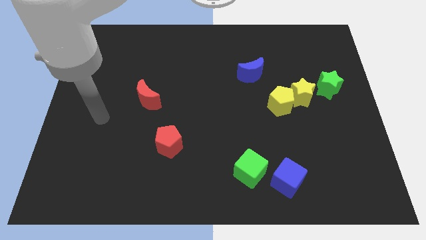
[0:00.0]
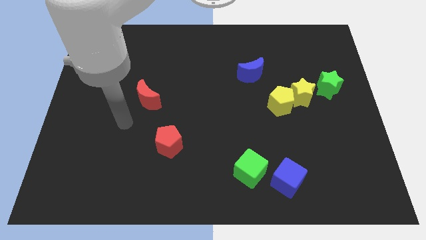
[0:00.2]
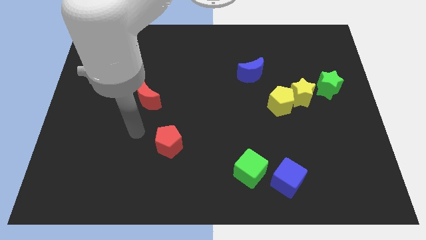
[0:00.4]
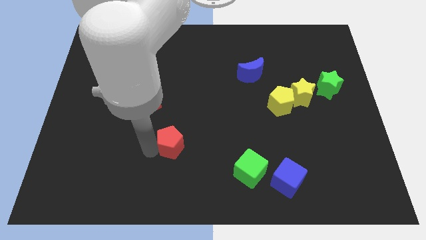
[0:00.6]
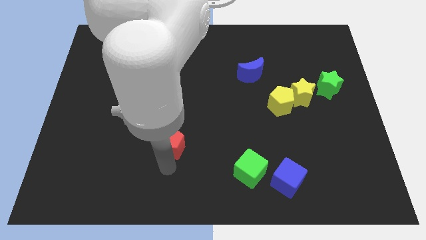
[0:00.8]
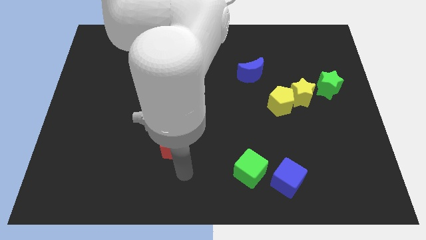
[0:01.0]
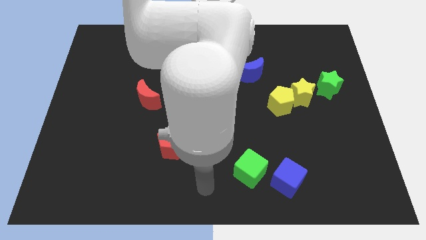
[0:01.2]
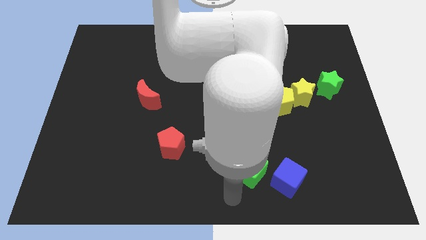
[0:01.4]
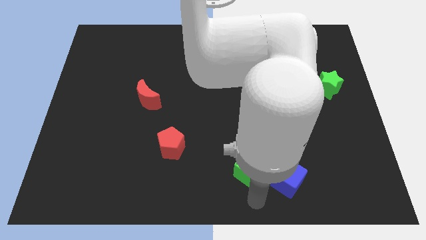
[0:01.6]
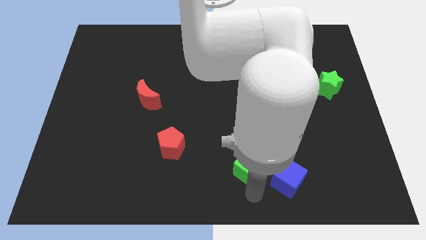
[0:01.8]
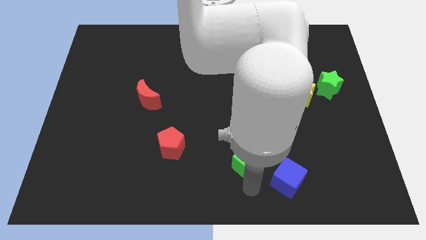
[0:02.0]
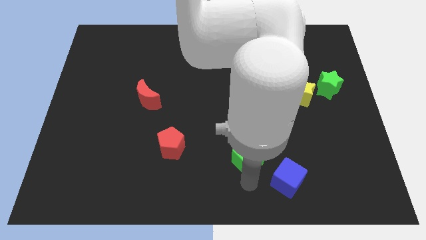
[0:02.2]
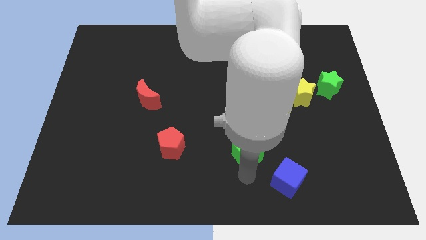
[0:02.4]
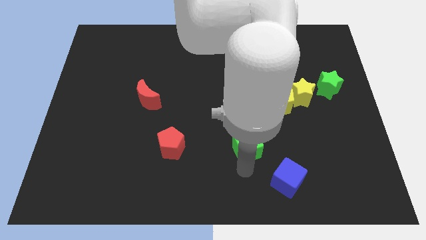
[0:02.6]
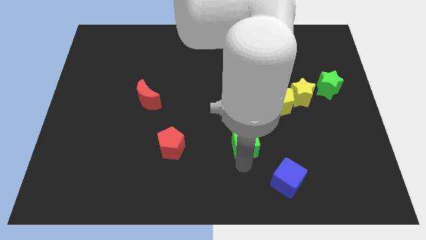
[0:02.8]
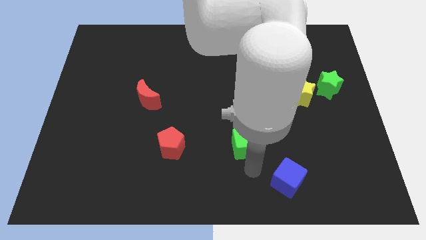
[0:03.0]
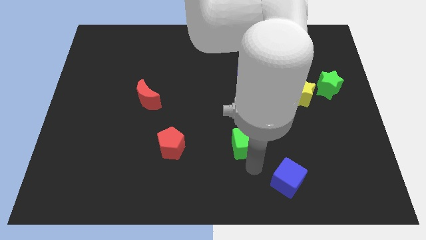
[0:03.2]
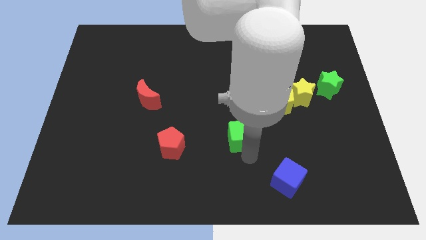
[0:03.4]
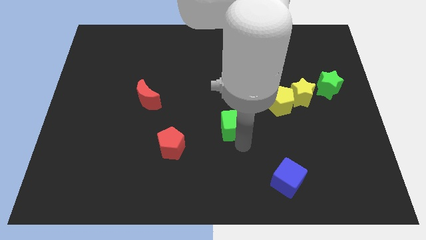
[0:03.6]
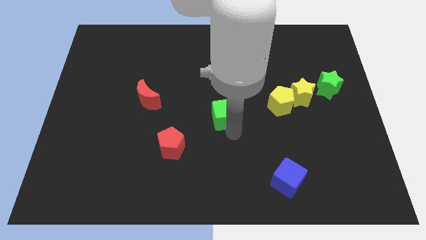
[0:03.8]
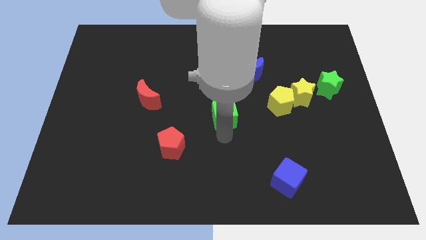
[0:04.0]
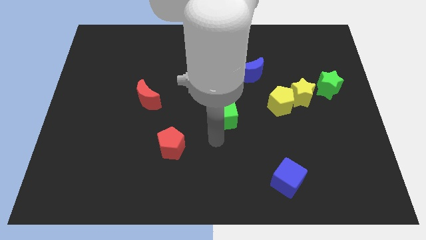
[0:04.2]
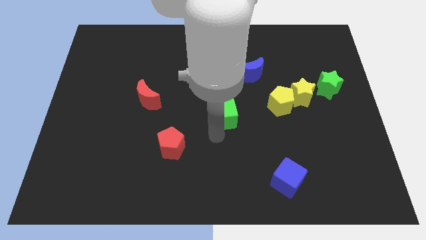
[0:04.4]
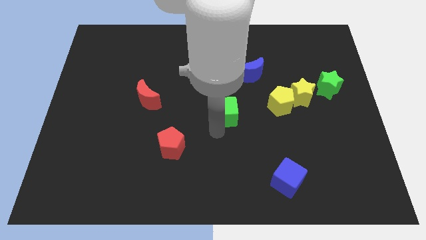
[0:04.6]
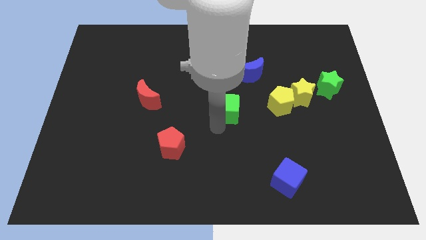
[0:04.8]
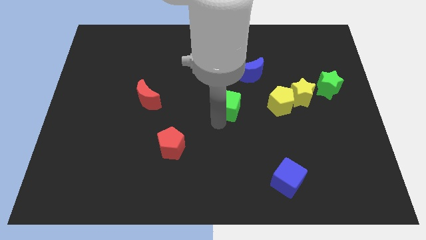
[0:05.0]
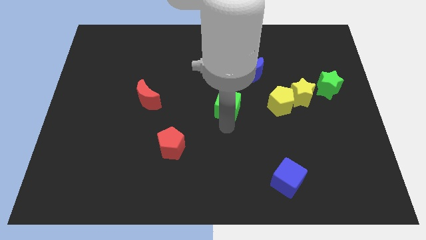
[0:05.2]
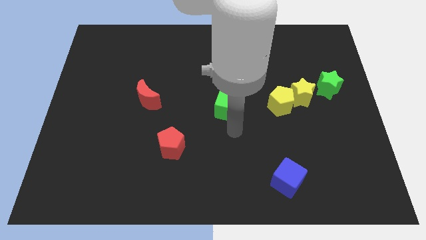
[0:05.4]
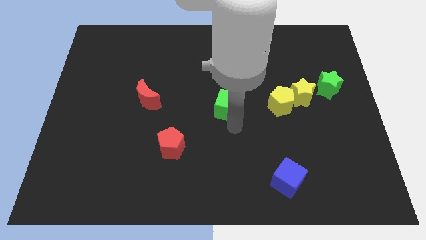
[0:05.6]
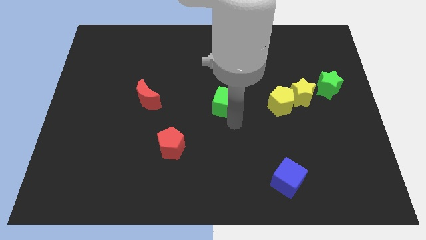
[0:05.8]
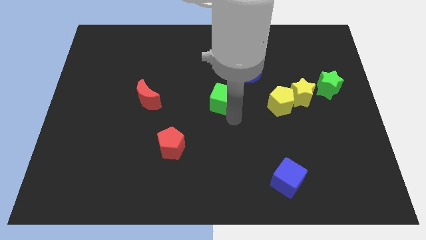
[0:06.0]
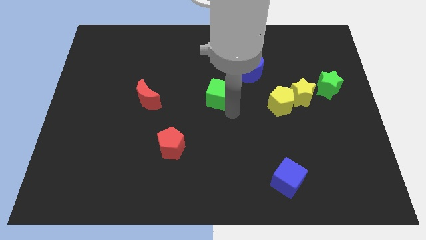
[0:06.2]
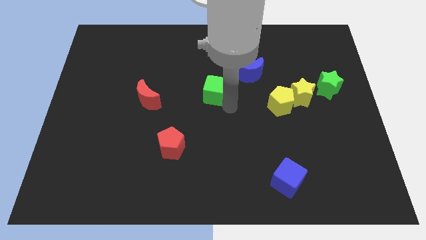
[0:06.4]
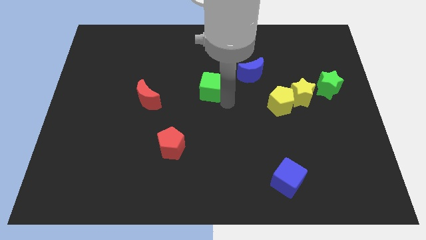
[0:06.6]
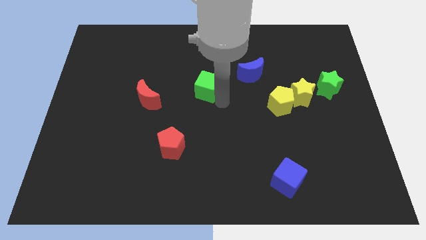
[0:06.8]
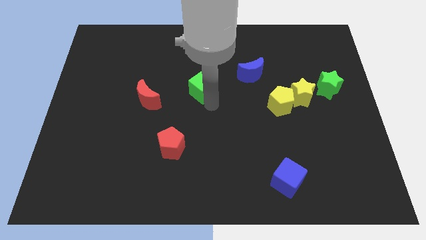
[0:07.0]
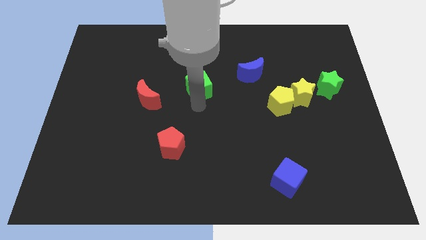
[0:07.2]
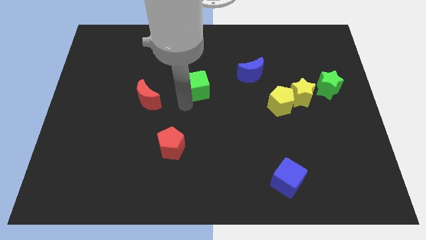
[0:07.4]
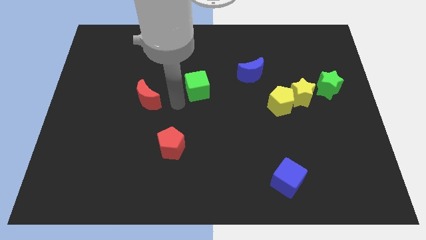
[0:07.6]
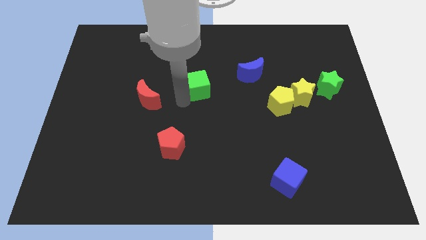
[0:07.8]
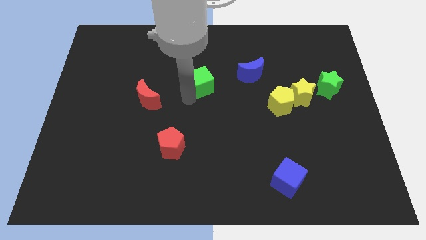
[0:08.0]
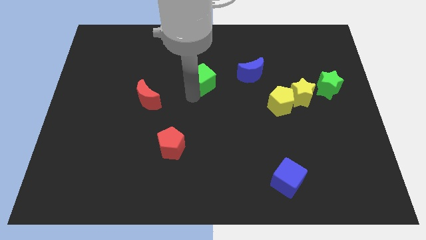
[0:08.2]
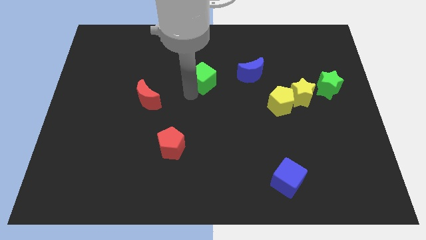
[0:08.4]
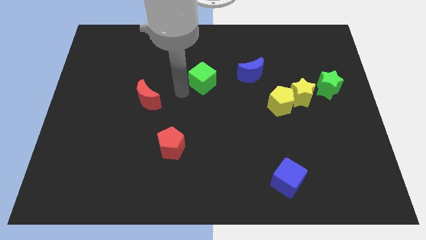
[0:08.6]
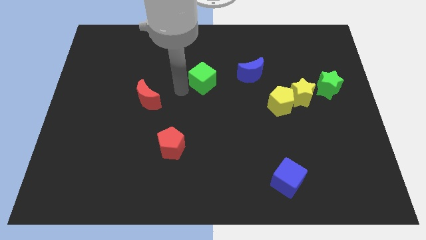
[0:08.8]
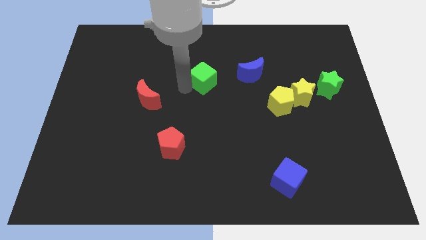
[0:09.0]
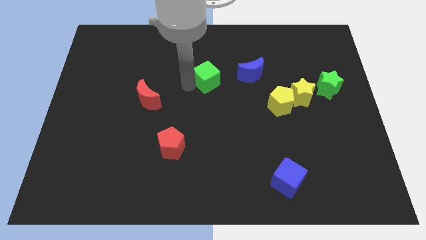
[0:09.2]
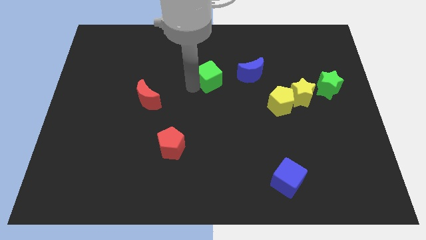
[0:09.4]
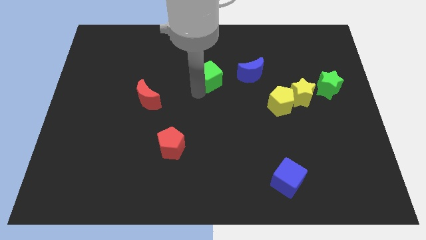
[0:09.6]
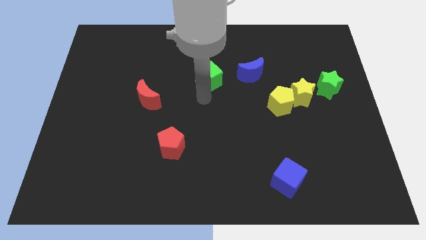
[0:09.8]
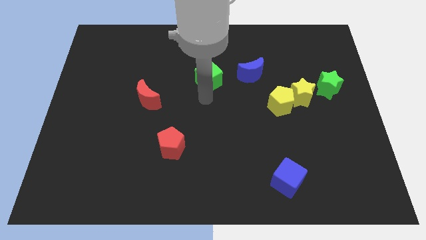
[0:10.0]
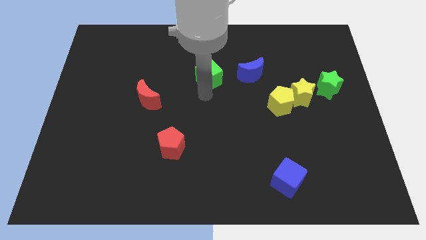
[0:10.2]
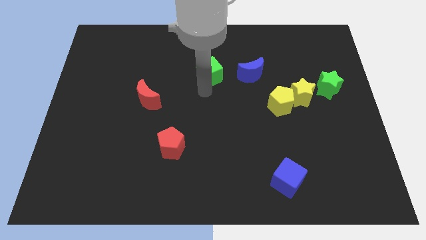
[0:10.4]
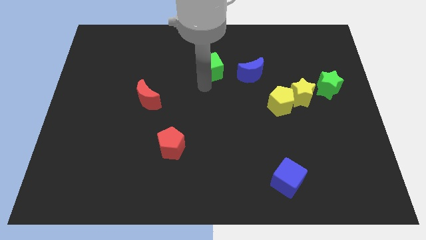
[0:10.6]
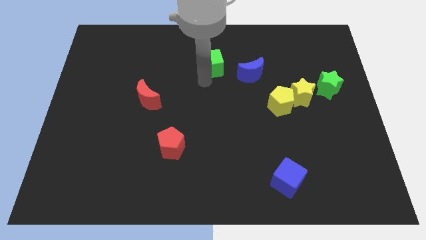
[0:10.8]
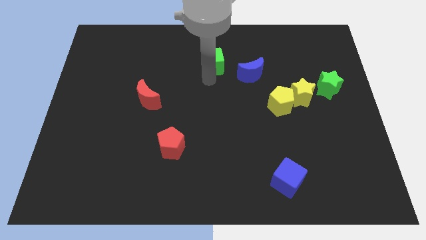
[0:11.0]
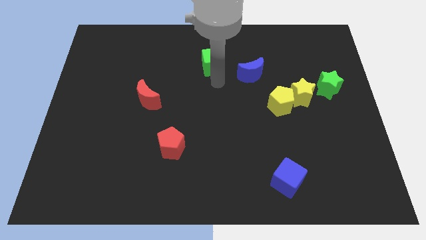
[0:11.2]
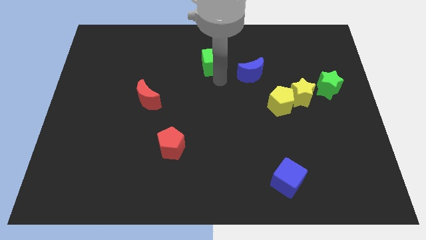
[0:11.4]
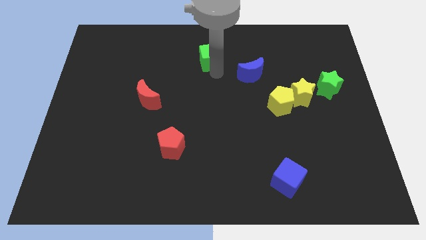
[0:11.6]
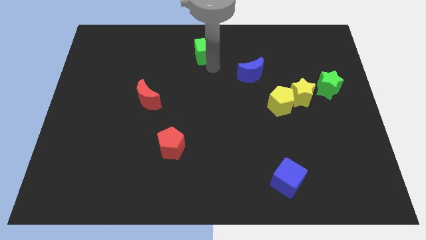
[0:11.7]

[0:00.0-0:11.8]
slide the green cube to the towards your base
